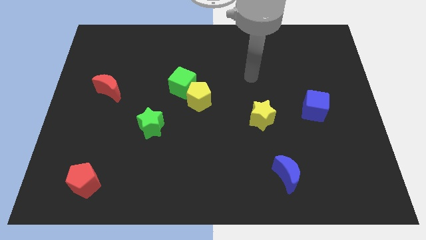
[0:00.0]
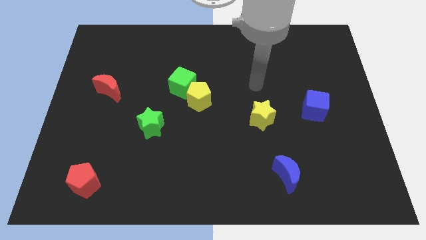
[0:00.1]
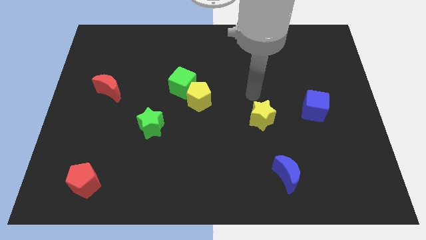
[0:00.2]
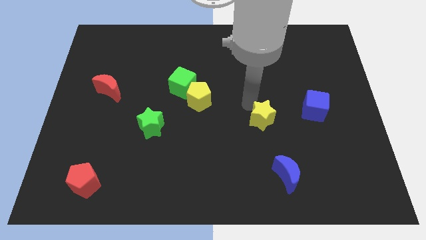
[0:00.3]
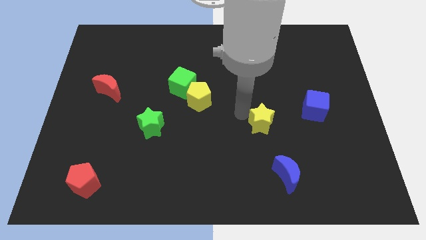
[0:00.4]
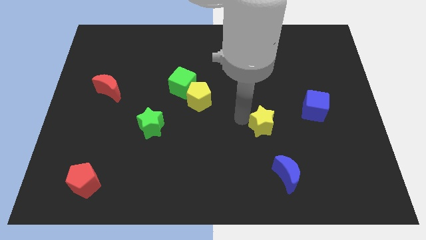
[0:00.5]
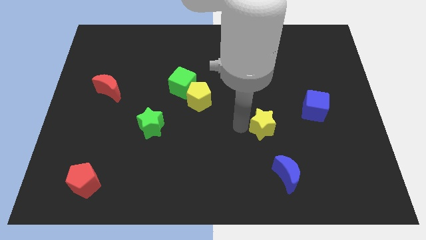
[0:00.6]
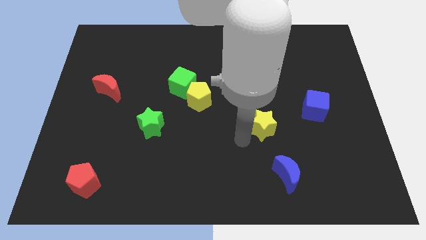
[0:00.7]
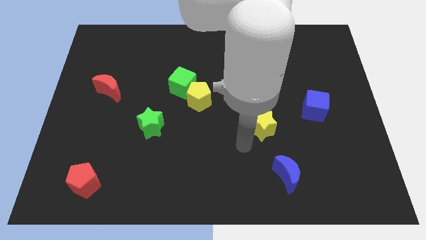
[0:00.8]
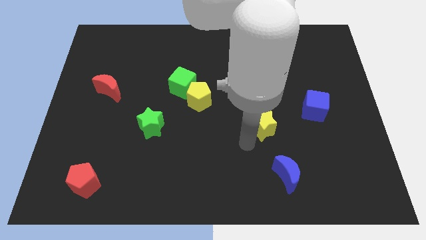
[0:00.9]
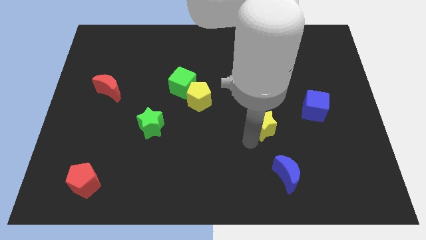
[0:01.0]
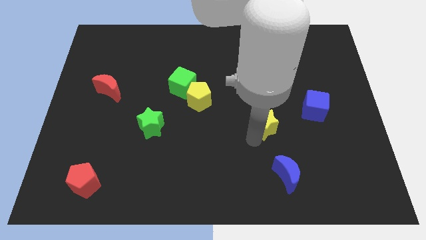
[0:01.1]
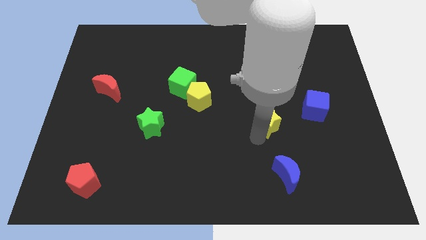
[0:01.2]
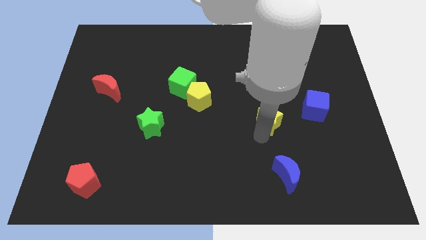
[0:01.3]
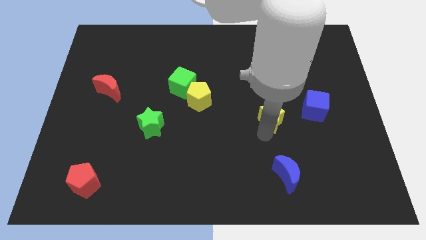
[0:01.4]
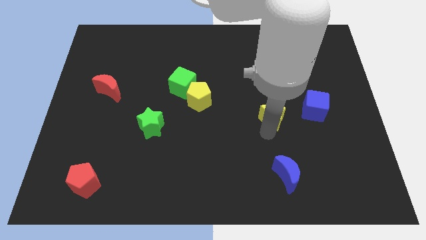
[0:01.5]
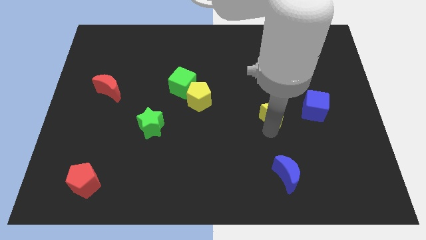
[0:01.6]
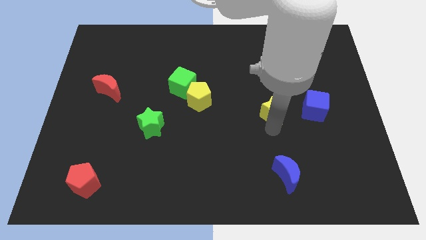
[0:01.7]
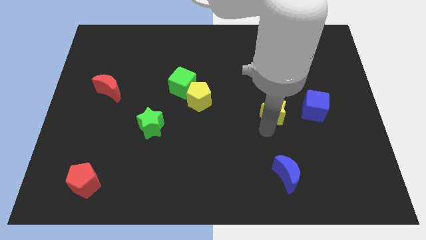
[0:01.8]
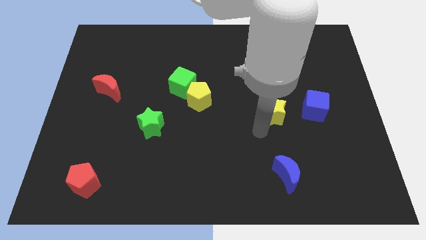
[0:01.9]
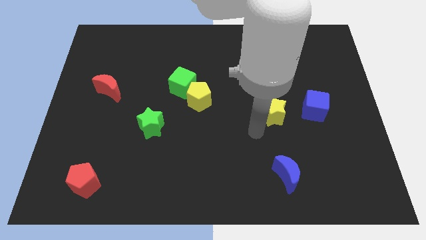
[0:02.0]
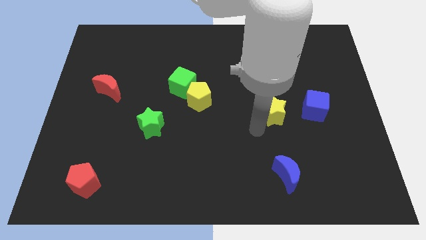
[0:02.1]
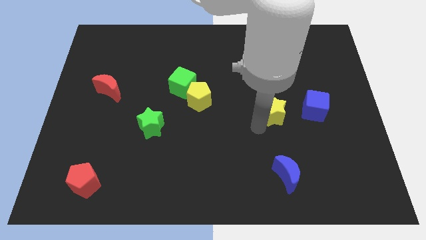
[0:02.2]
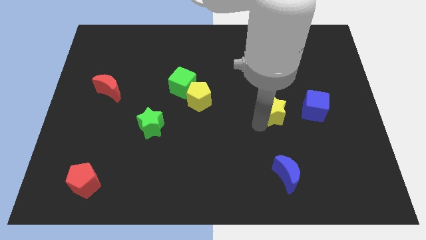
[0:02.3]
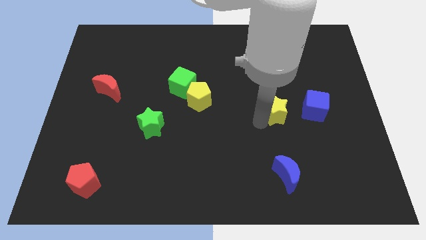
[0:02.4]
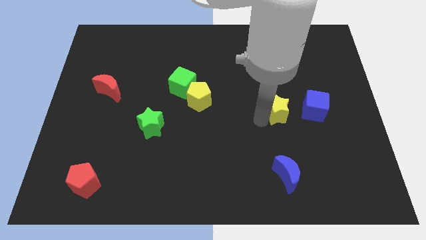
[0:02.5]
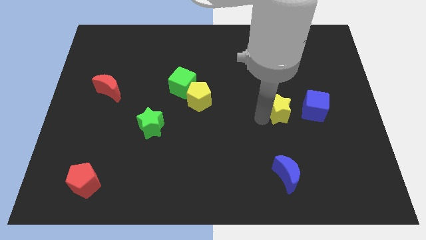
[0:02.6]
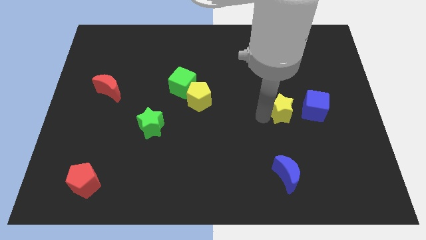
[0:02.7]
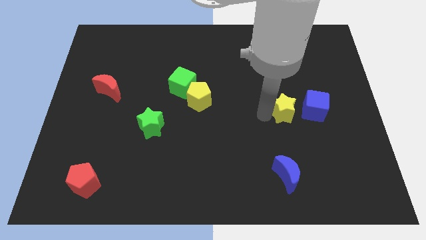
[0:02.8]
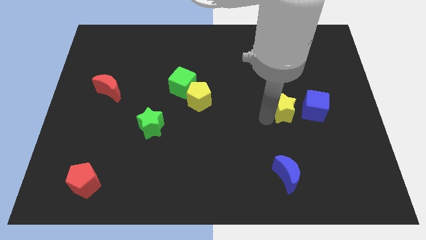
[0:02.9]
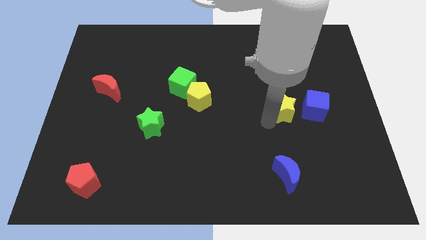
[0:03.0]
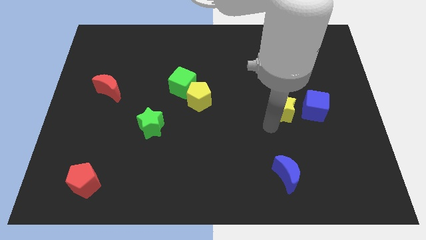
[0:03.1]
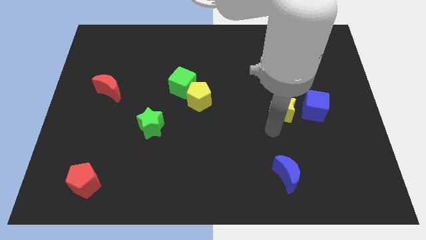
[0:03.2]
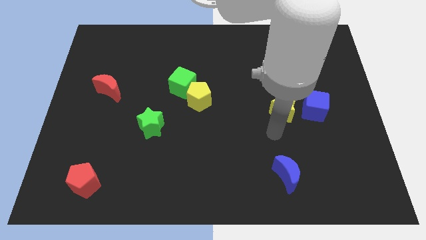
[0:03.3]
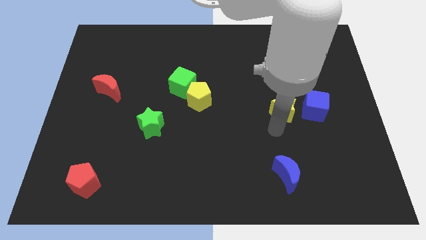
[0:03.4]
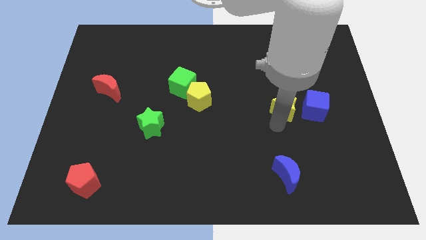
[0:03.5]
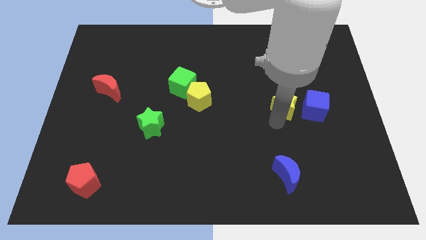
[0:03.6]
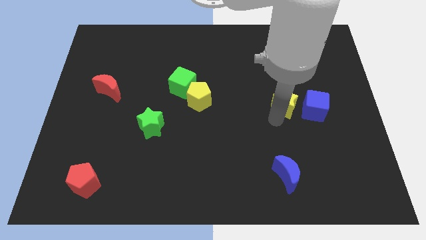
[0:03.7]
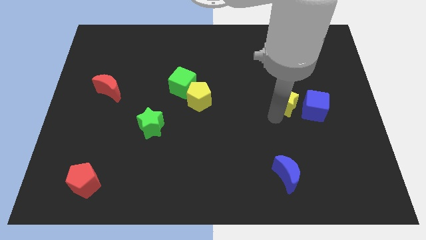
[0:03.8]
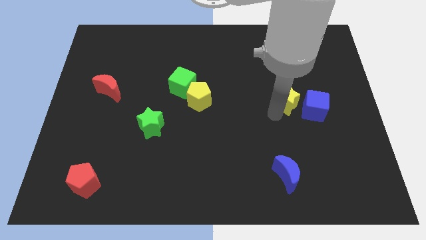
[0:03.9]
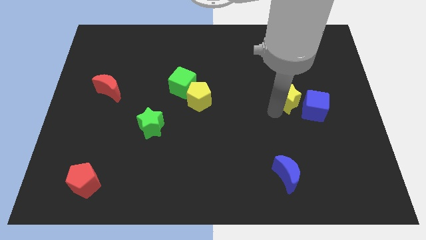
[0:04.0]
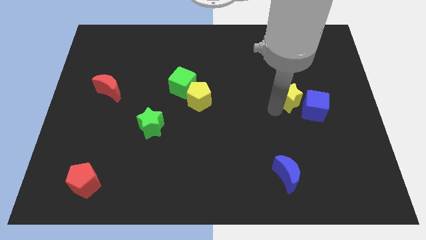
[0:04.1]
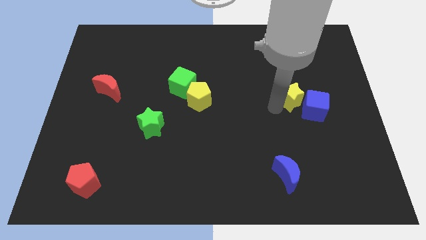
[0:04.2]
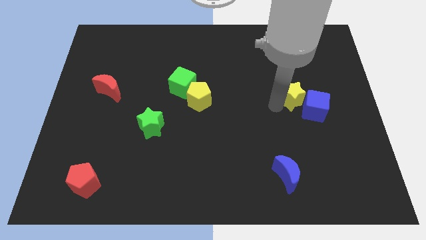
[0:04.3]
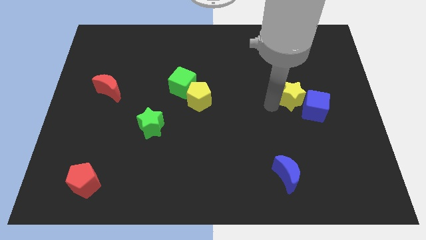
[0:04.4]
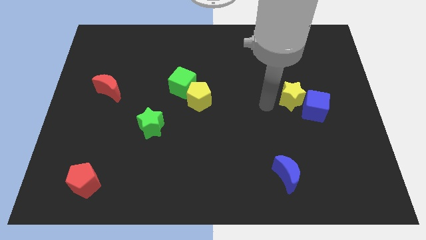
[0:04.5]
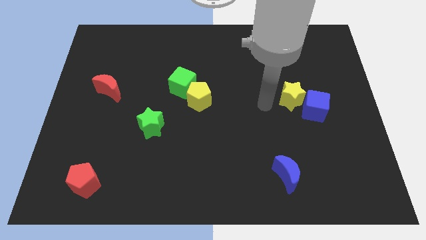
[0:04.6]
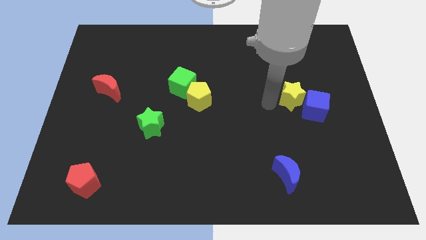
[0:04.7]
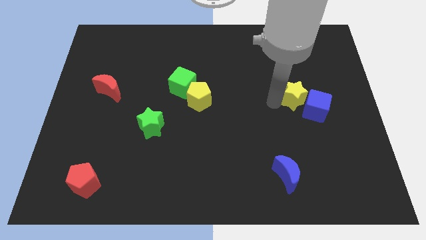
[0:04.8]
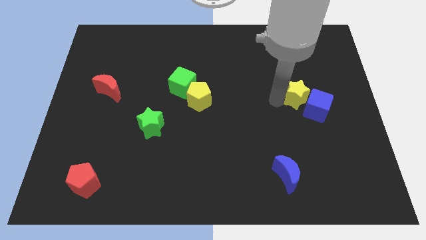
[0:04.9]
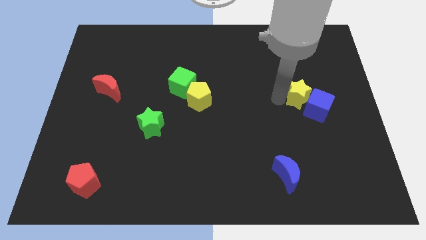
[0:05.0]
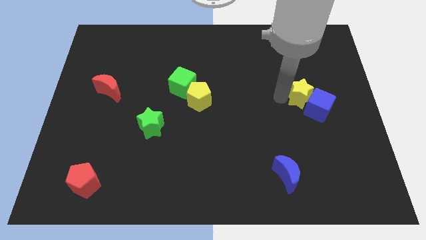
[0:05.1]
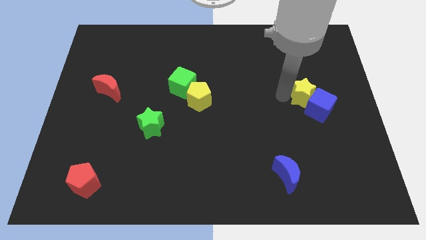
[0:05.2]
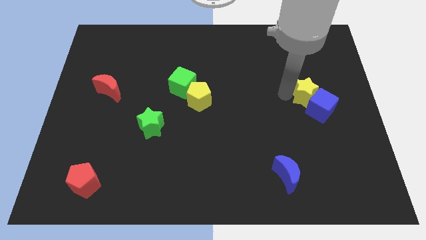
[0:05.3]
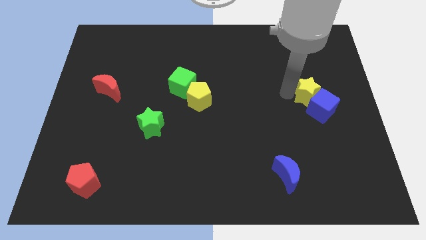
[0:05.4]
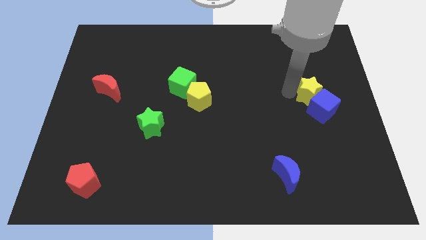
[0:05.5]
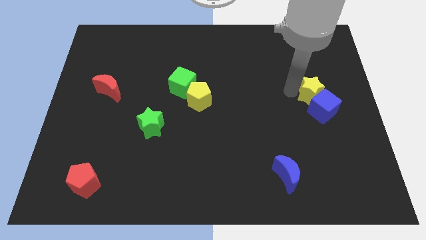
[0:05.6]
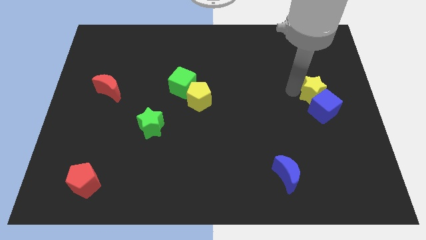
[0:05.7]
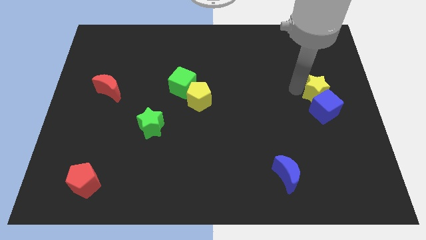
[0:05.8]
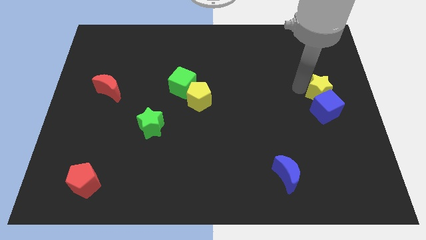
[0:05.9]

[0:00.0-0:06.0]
put the yellow star to the right side of the board
